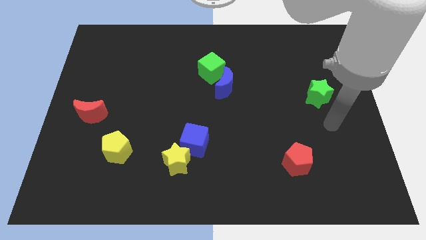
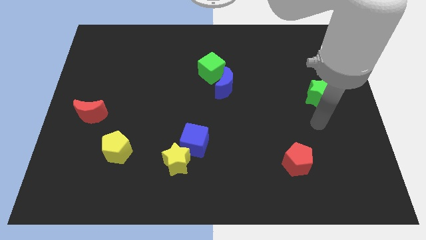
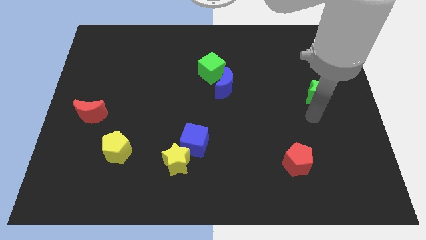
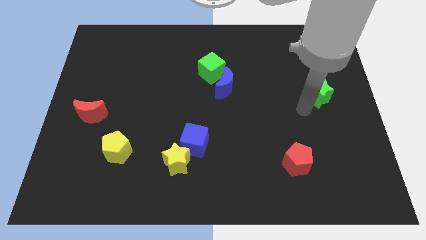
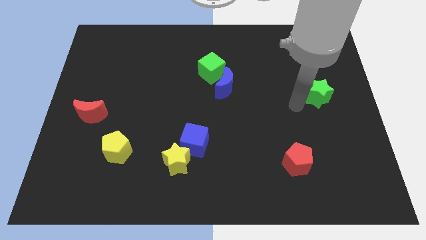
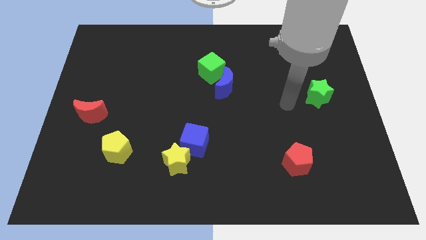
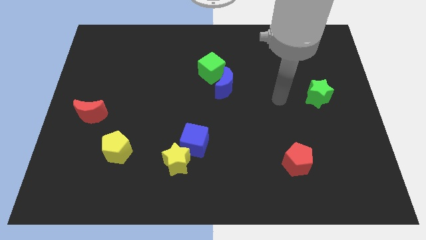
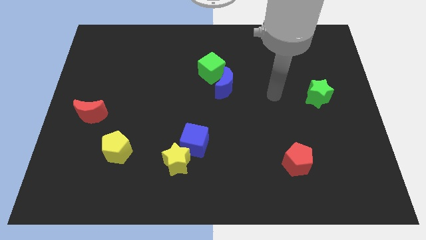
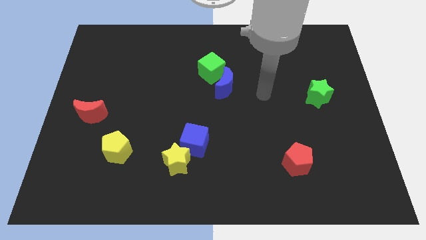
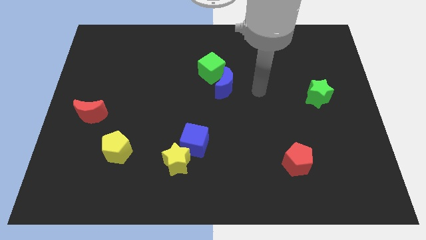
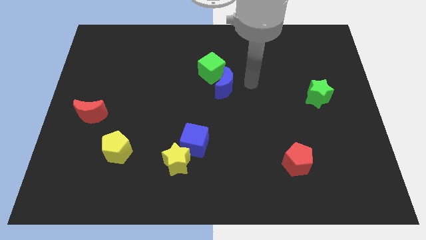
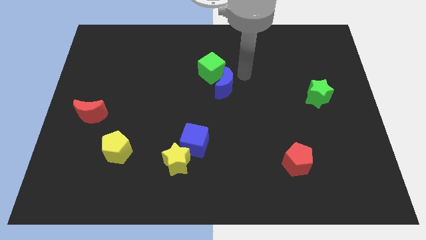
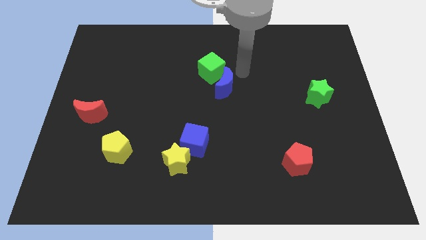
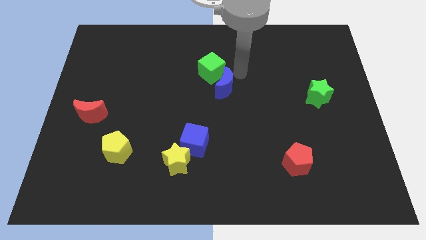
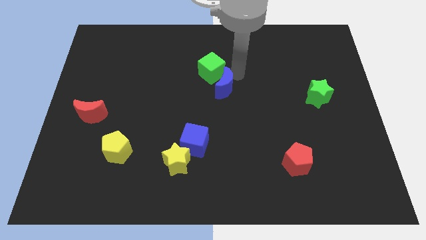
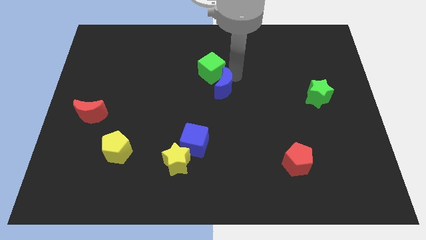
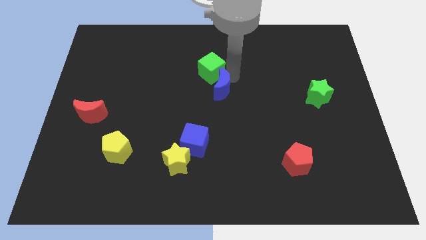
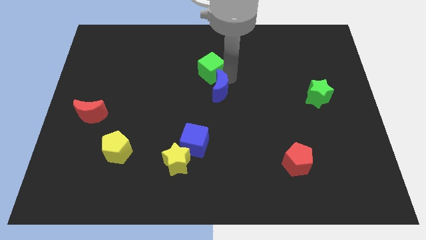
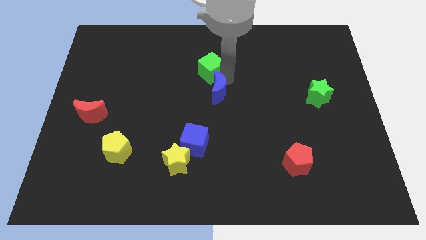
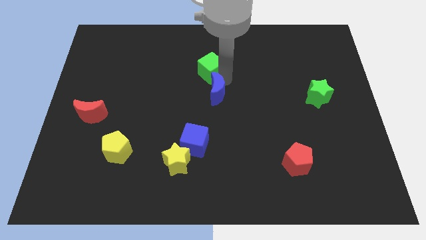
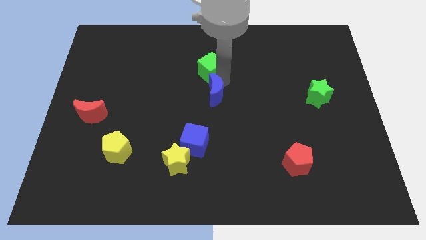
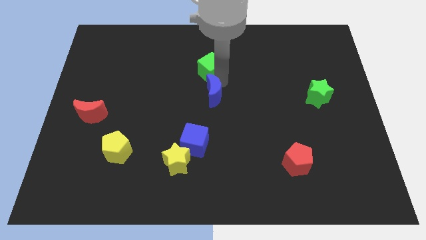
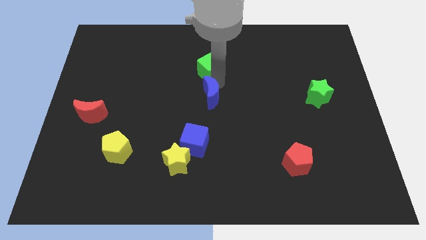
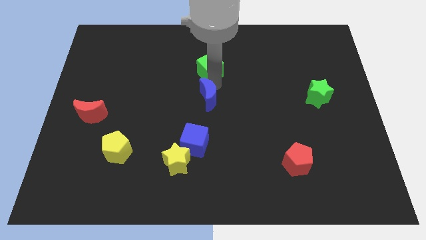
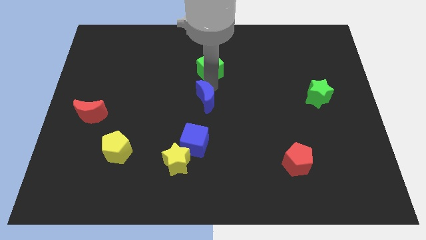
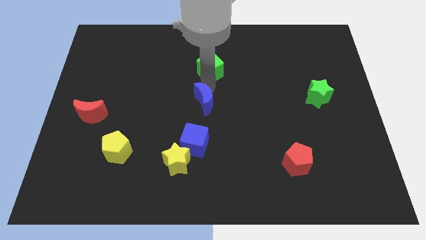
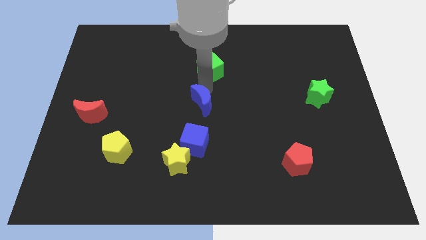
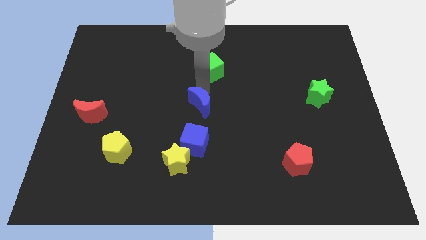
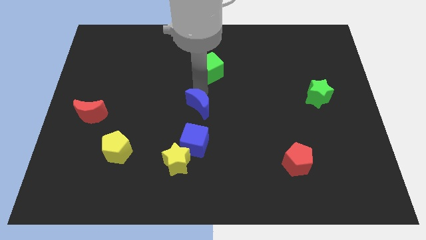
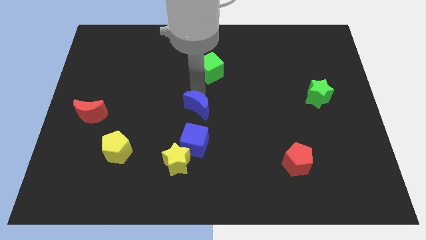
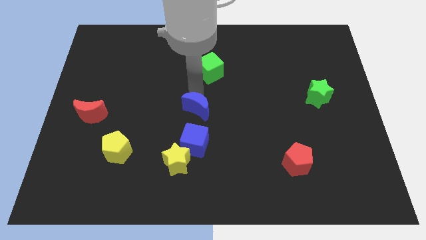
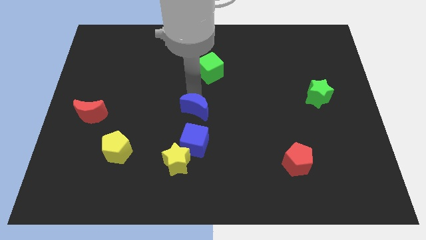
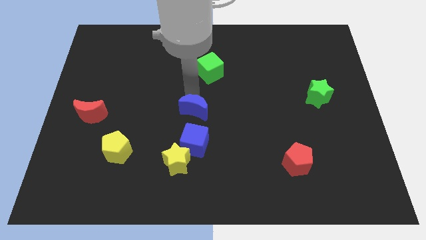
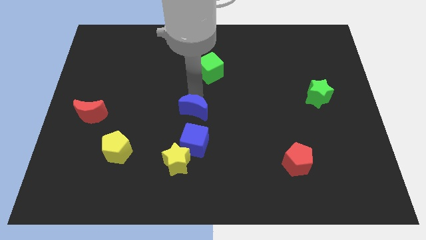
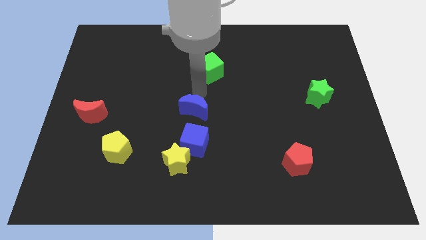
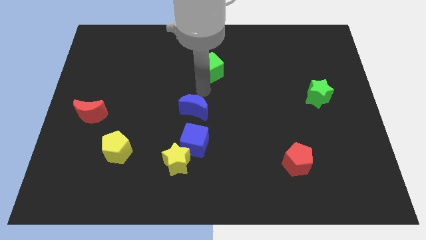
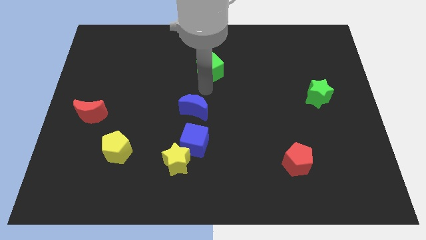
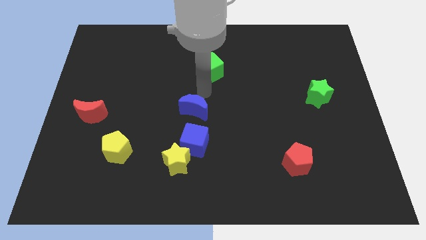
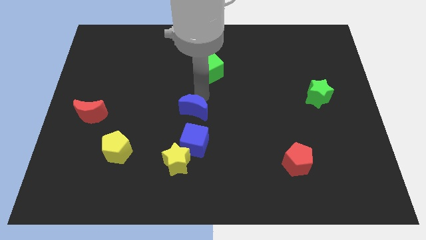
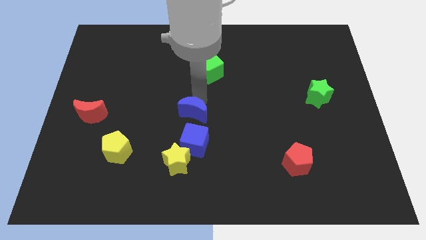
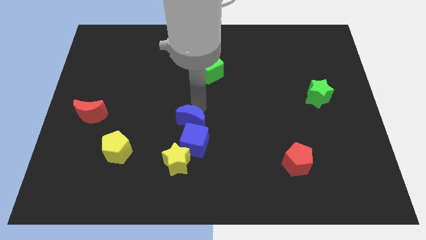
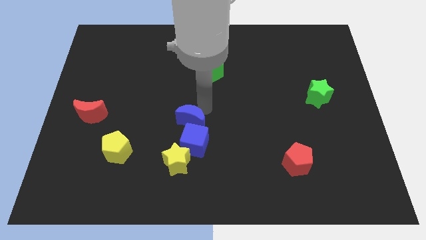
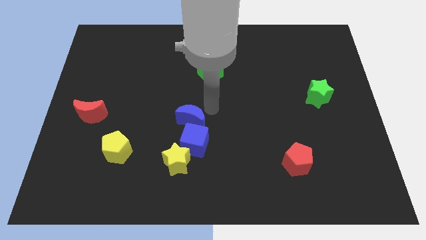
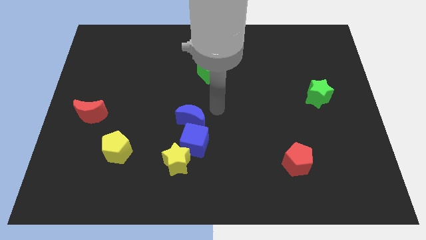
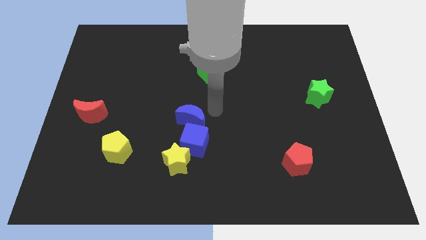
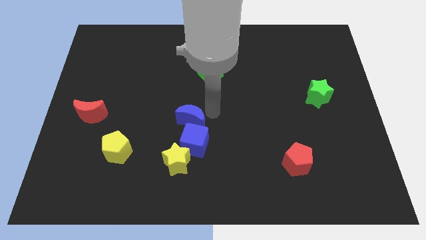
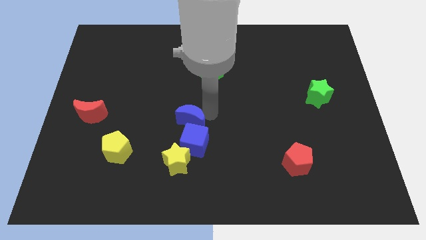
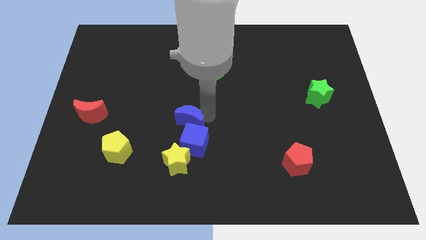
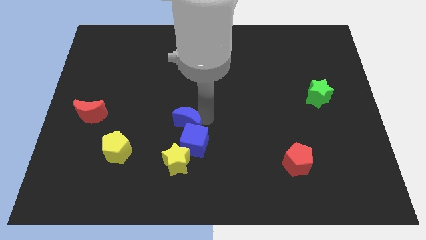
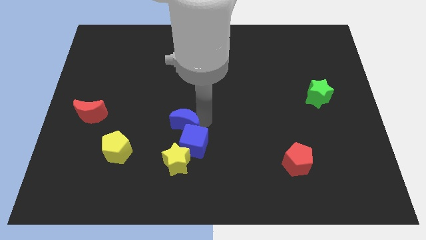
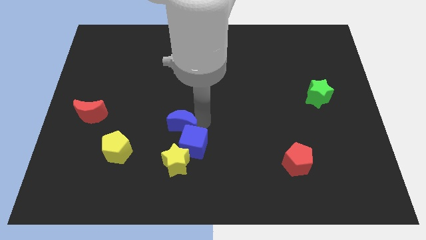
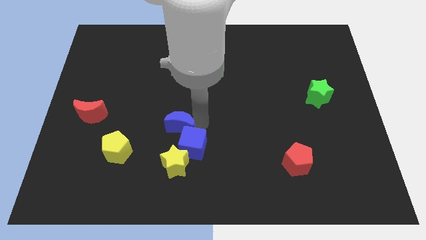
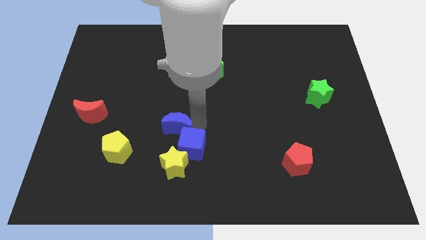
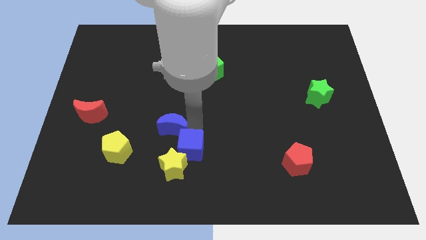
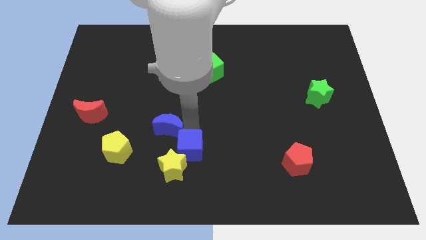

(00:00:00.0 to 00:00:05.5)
slide the blue moon to the left side of the blue cube

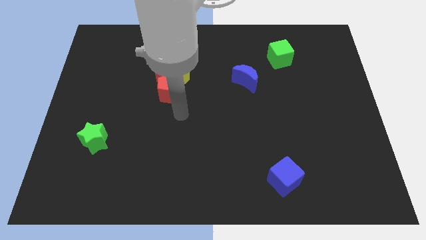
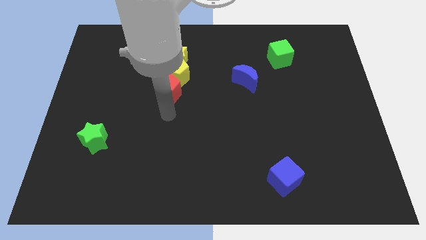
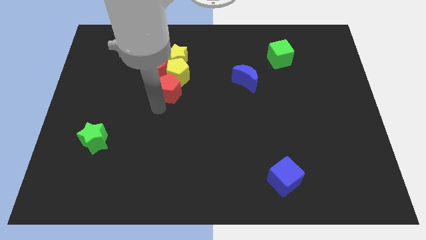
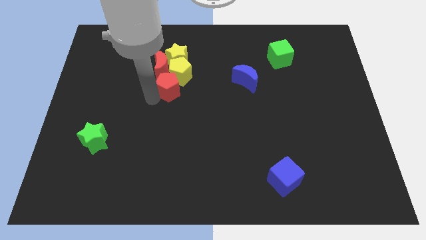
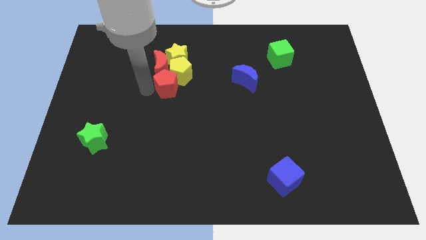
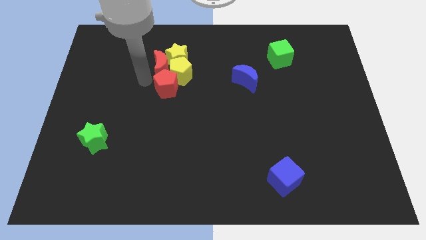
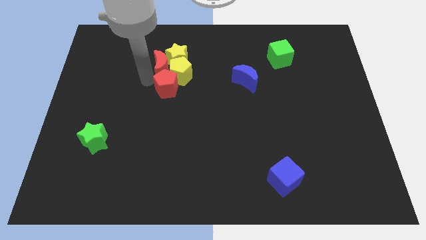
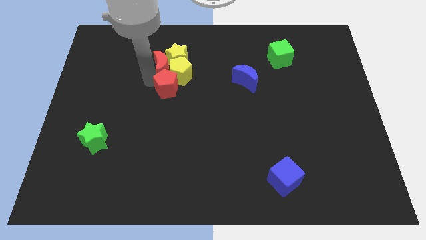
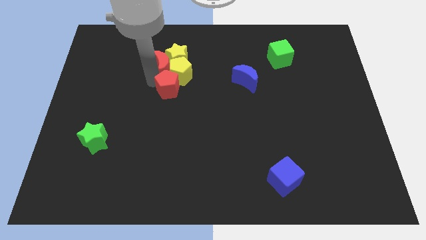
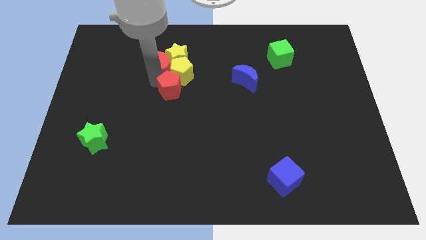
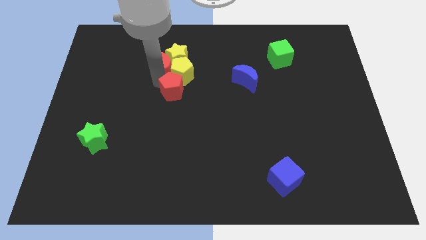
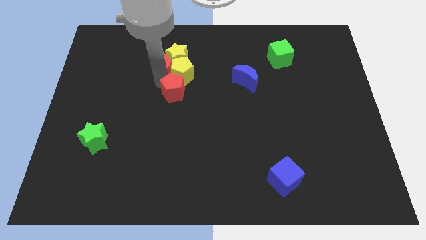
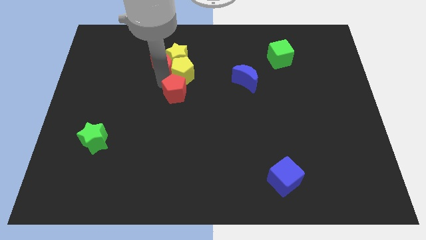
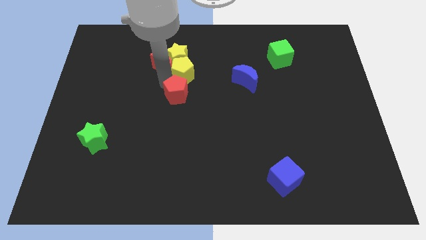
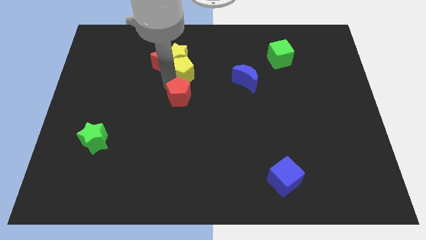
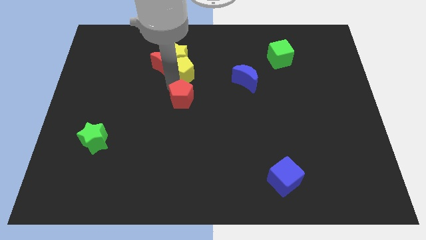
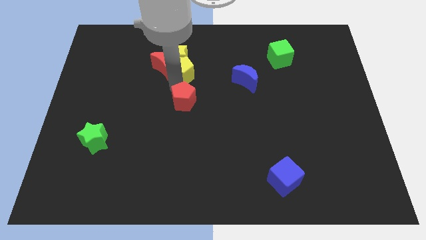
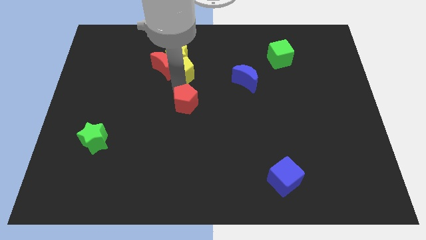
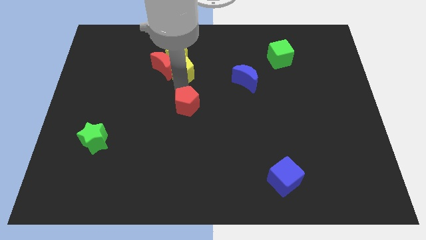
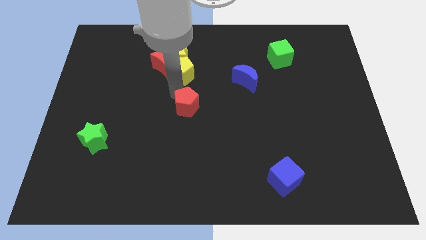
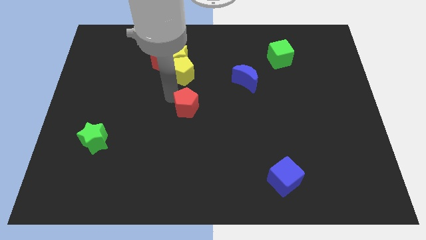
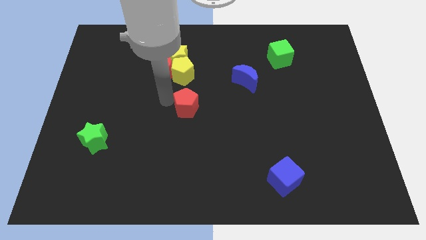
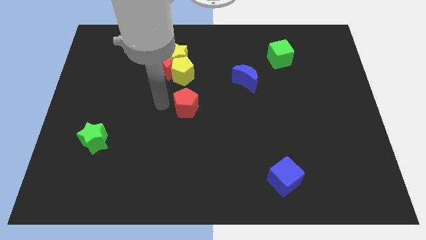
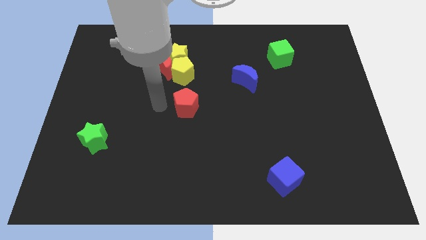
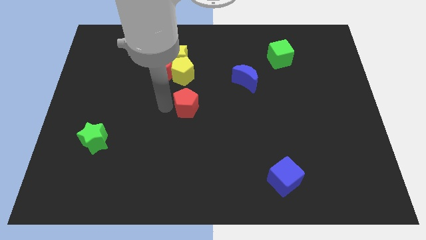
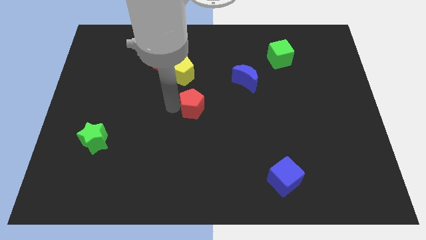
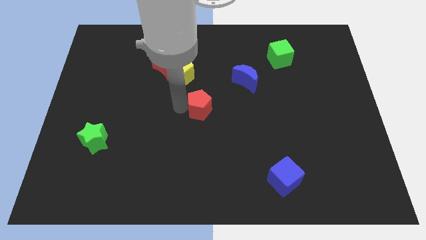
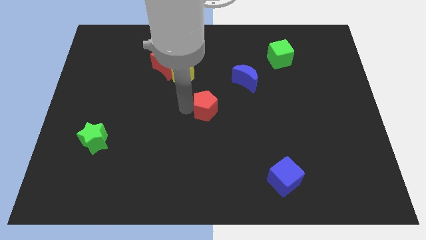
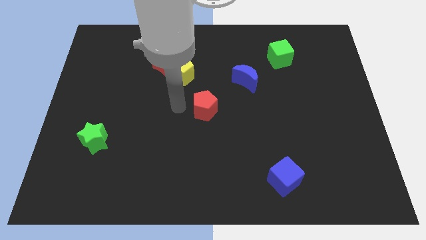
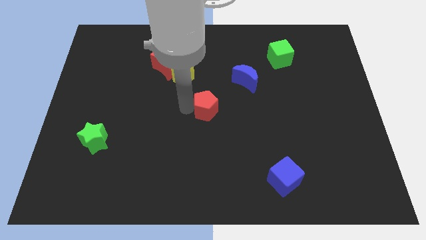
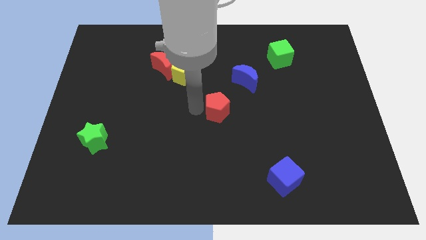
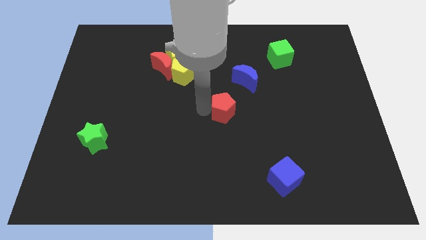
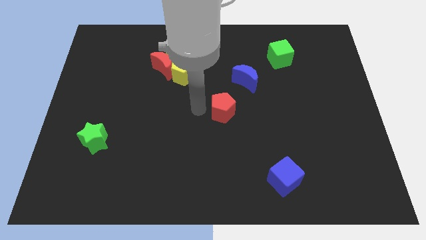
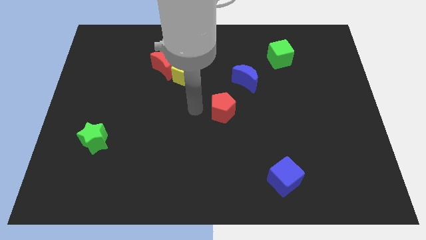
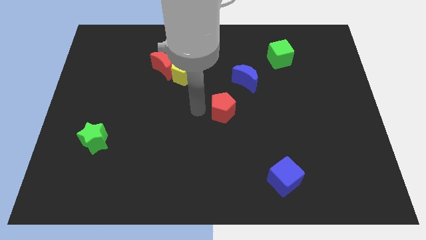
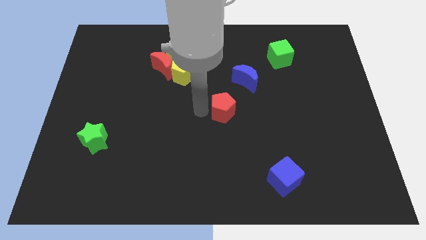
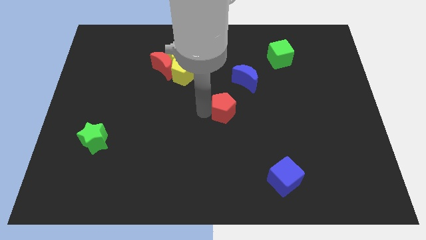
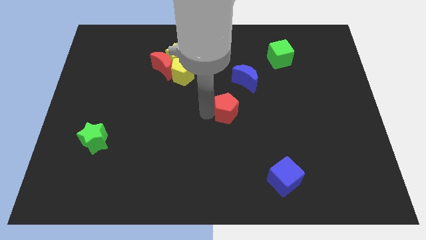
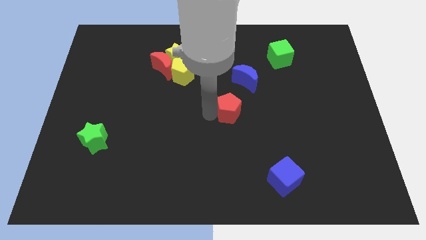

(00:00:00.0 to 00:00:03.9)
push the red pentagon to the bottom of the blue moon
